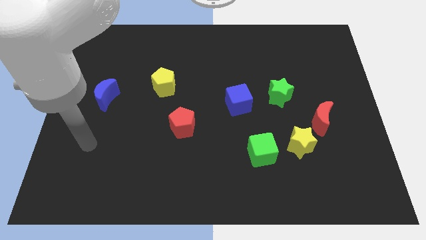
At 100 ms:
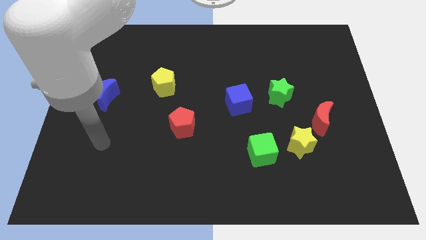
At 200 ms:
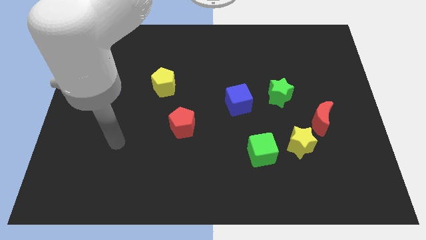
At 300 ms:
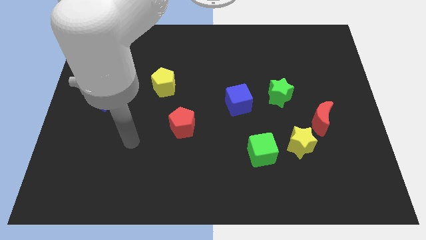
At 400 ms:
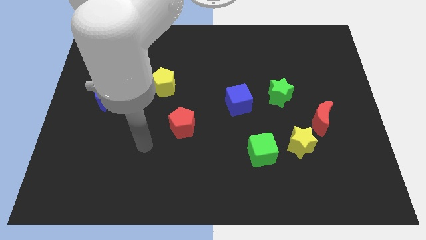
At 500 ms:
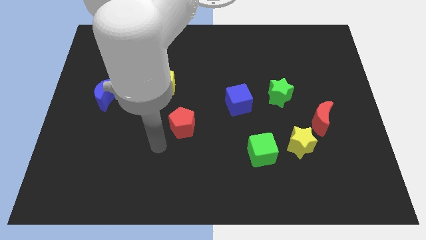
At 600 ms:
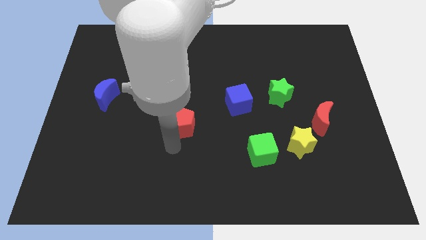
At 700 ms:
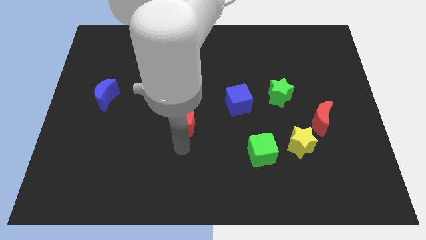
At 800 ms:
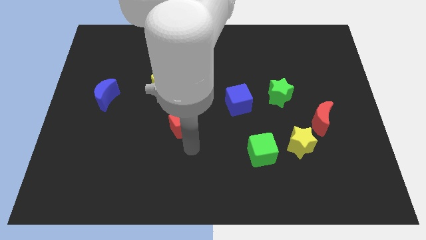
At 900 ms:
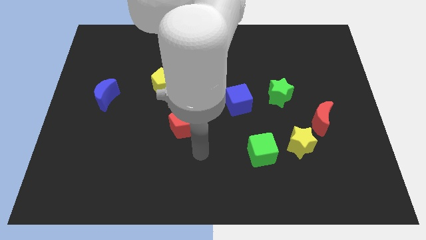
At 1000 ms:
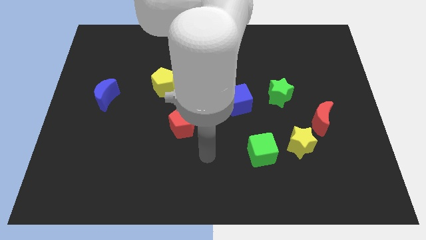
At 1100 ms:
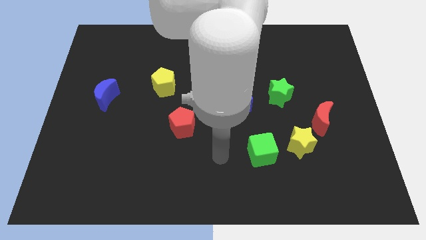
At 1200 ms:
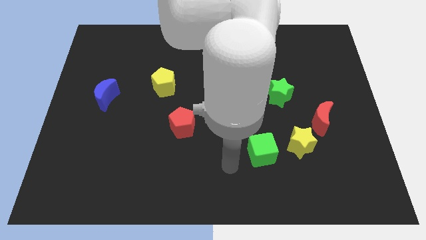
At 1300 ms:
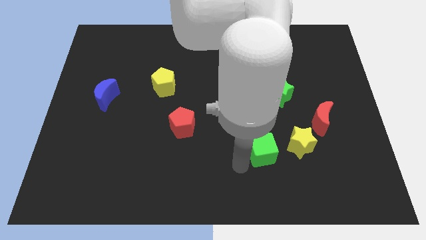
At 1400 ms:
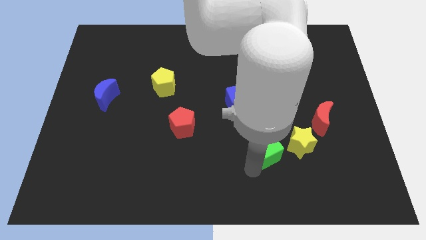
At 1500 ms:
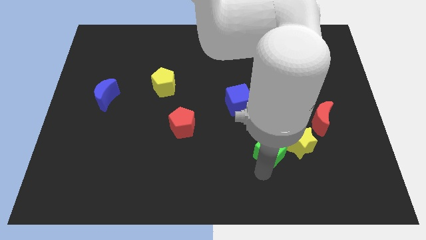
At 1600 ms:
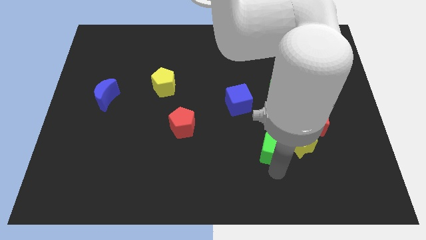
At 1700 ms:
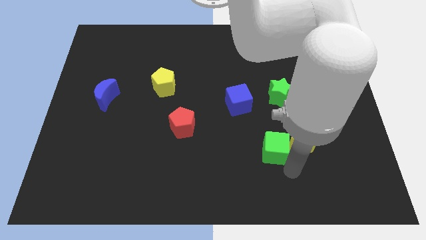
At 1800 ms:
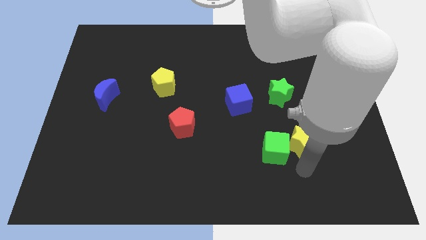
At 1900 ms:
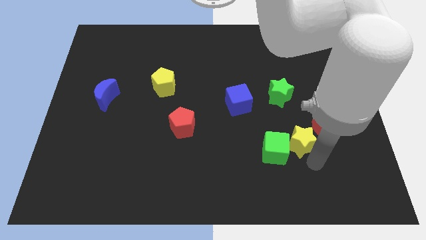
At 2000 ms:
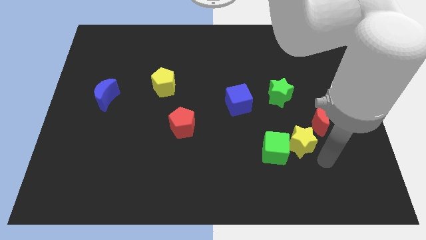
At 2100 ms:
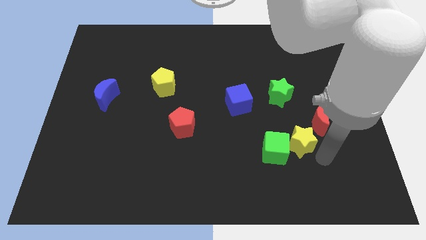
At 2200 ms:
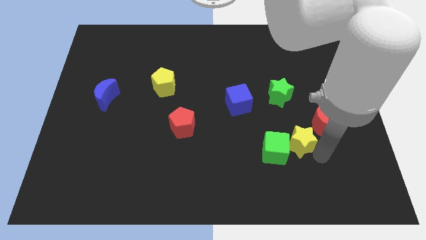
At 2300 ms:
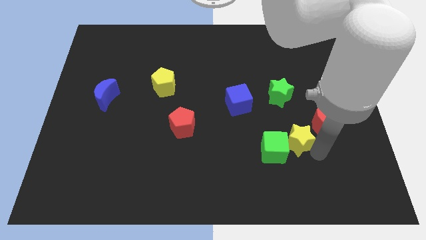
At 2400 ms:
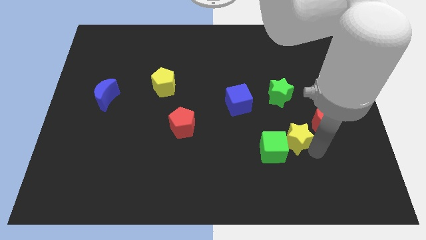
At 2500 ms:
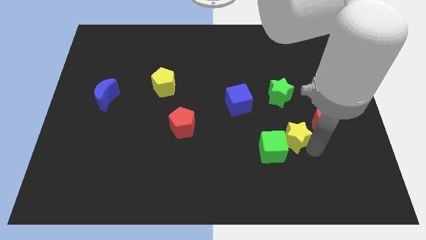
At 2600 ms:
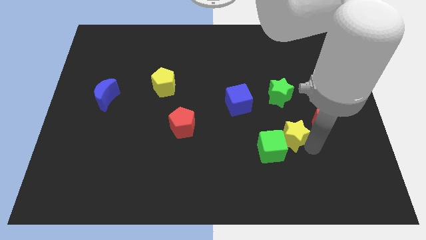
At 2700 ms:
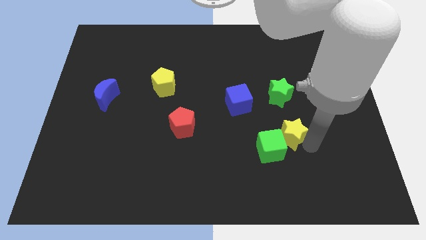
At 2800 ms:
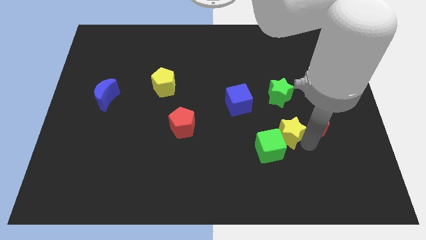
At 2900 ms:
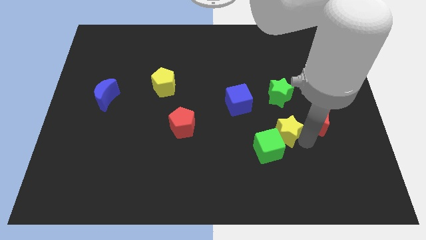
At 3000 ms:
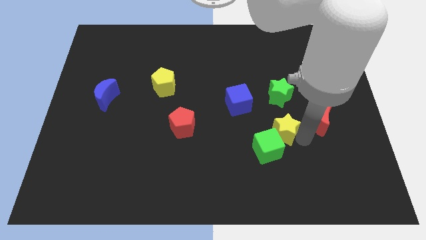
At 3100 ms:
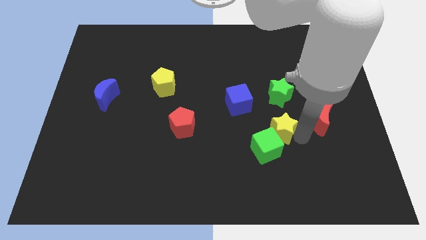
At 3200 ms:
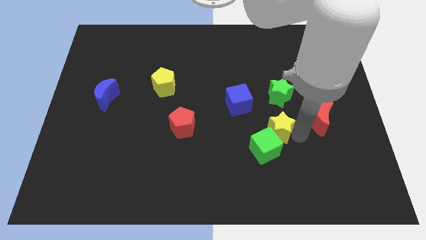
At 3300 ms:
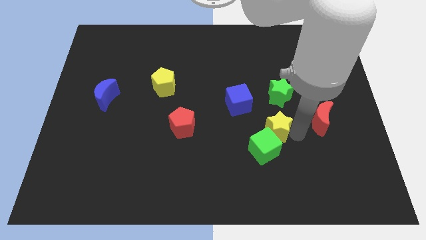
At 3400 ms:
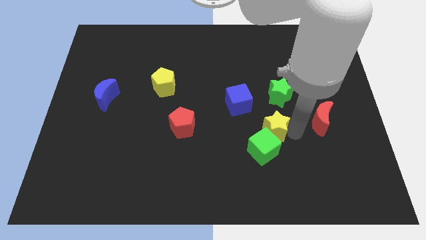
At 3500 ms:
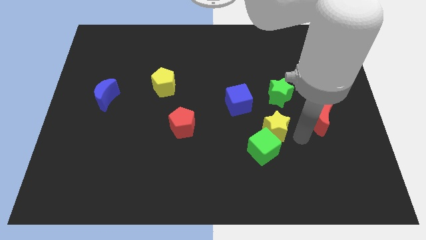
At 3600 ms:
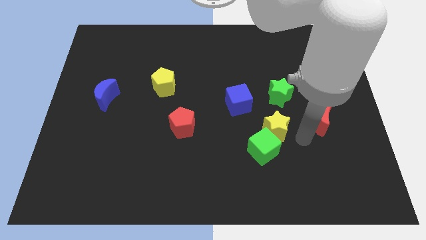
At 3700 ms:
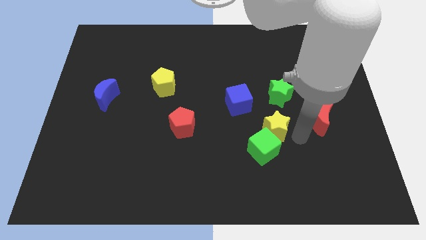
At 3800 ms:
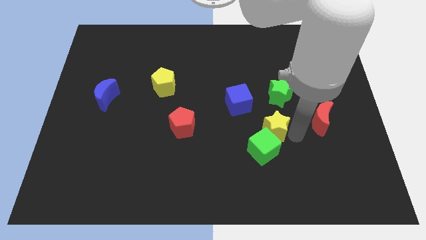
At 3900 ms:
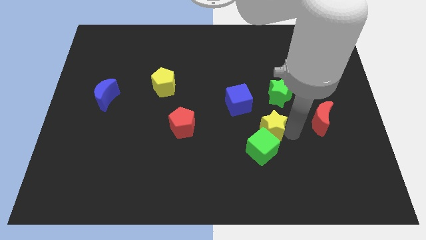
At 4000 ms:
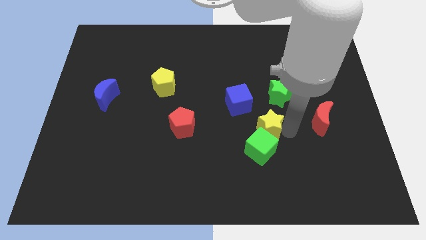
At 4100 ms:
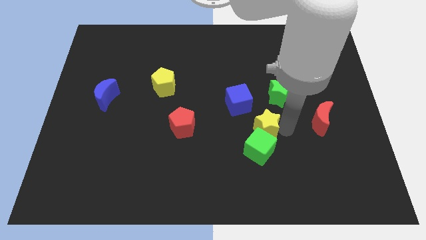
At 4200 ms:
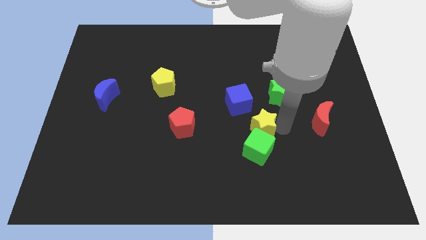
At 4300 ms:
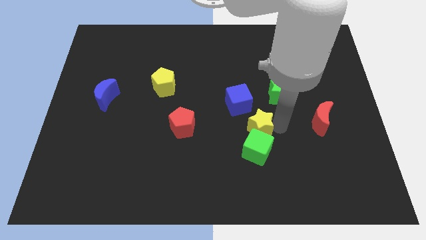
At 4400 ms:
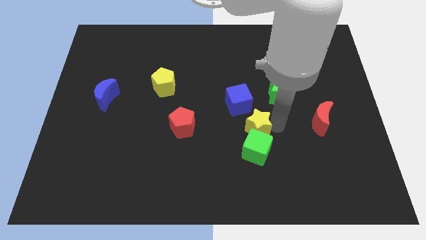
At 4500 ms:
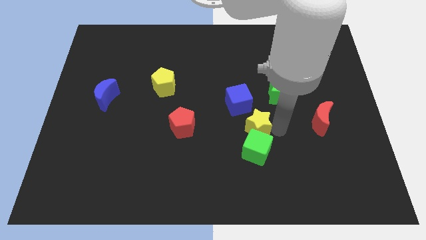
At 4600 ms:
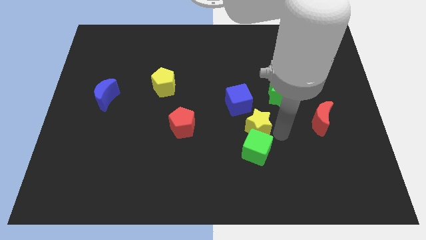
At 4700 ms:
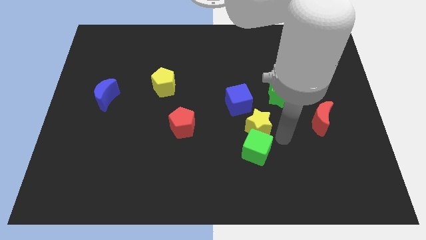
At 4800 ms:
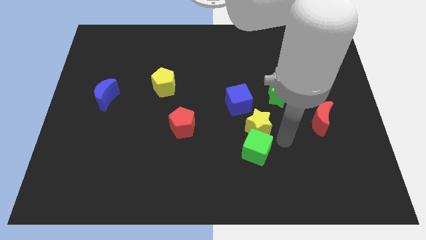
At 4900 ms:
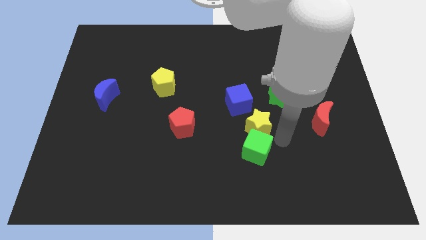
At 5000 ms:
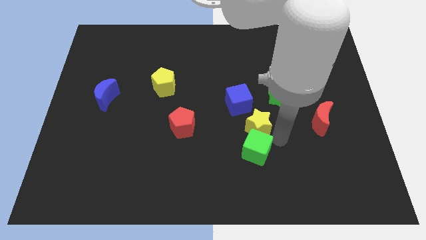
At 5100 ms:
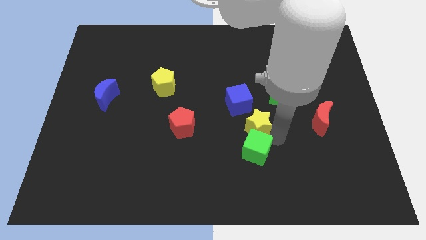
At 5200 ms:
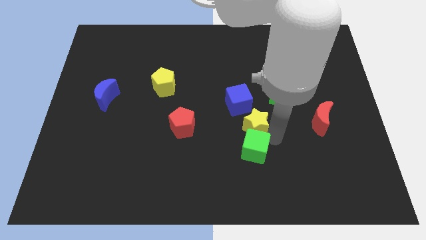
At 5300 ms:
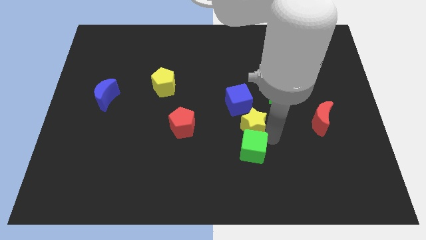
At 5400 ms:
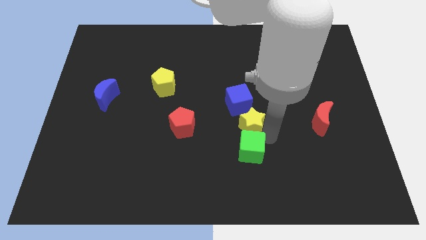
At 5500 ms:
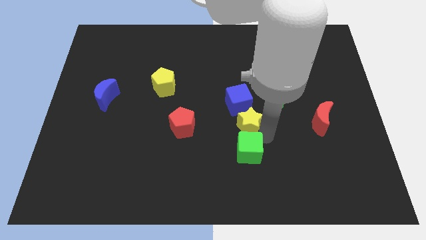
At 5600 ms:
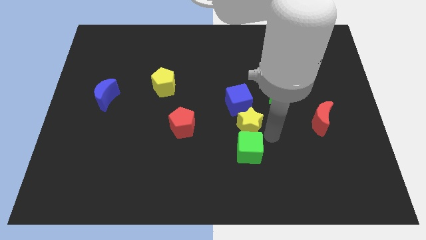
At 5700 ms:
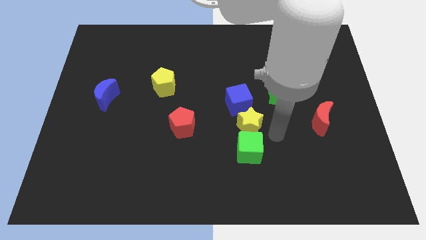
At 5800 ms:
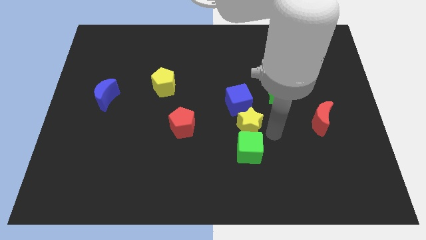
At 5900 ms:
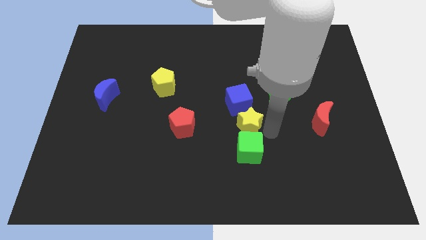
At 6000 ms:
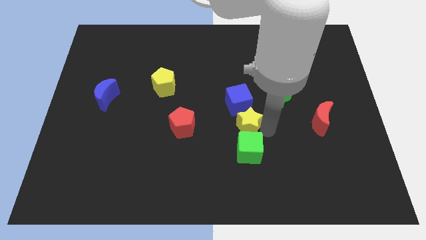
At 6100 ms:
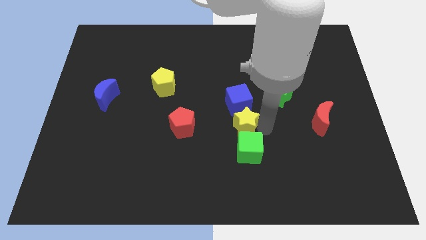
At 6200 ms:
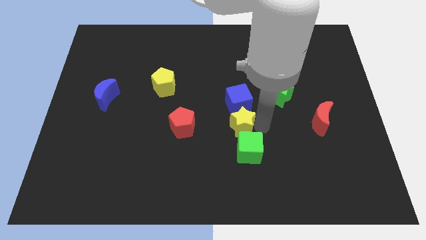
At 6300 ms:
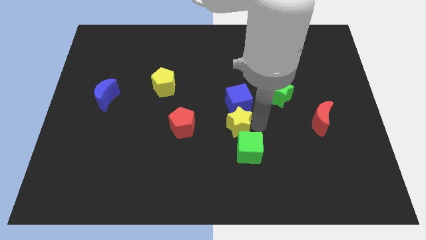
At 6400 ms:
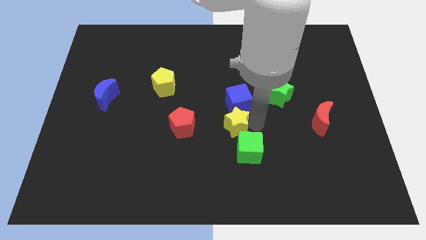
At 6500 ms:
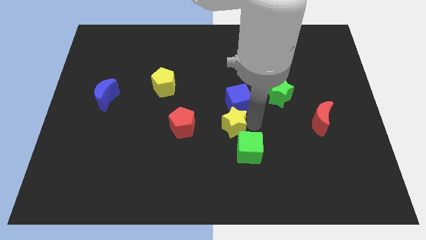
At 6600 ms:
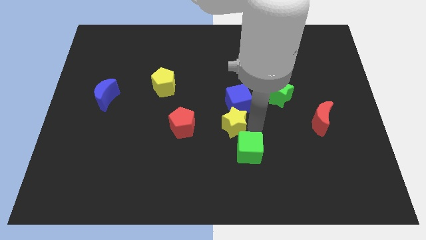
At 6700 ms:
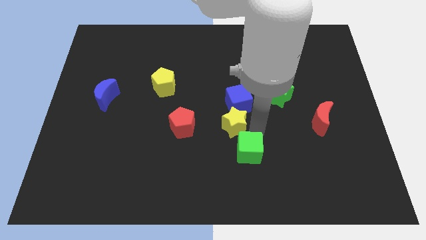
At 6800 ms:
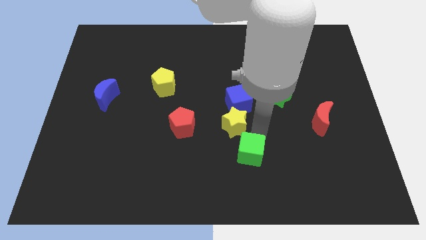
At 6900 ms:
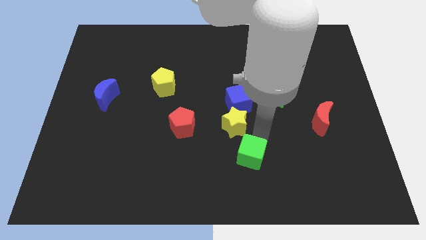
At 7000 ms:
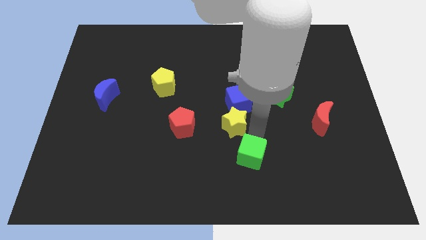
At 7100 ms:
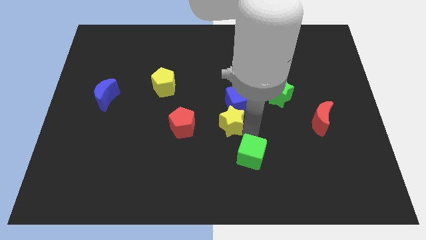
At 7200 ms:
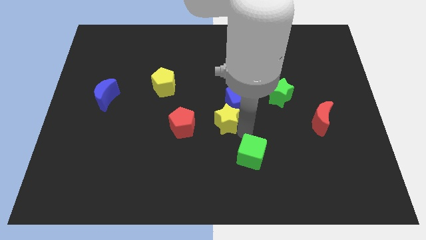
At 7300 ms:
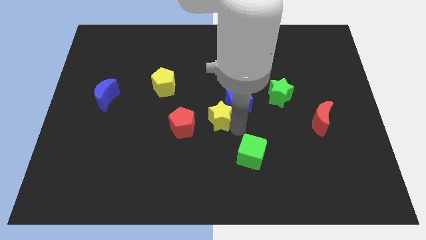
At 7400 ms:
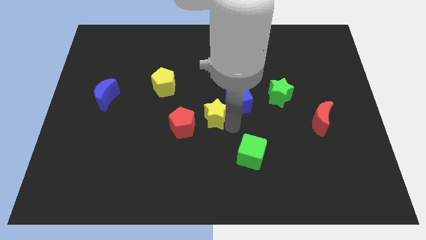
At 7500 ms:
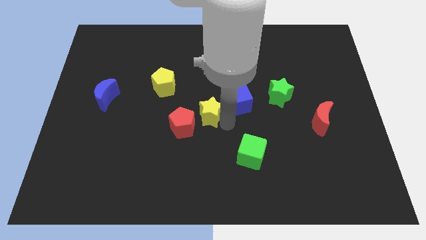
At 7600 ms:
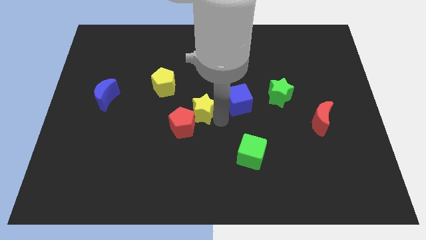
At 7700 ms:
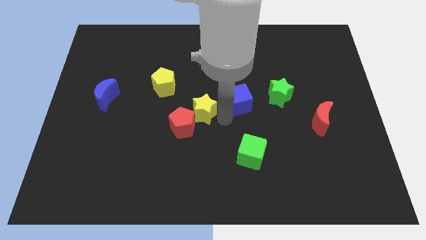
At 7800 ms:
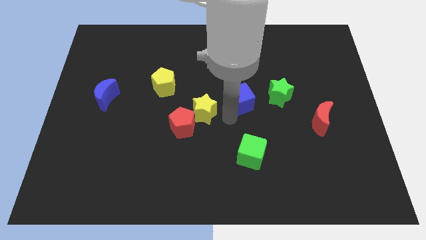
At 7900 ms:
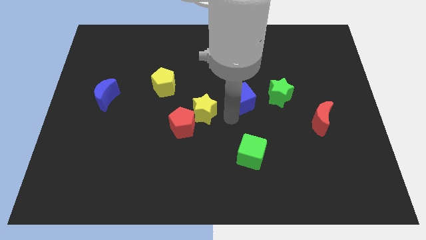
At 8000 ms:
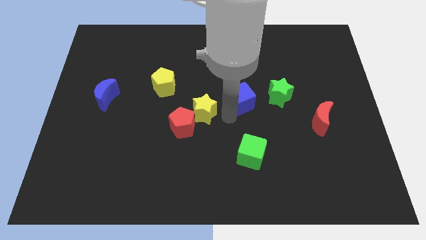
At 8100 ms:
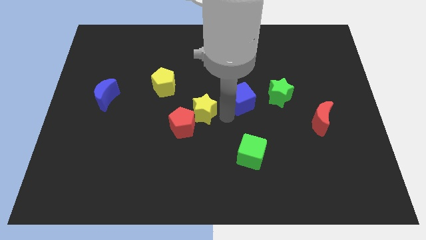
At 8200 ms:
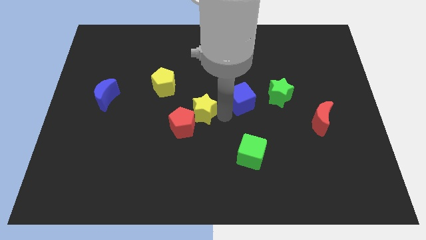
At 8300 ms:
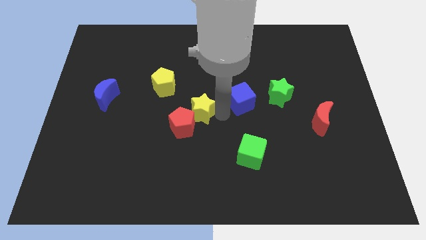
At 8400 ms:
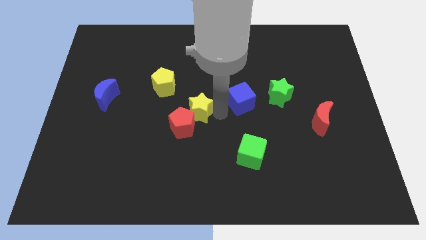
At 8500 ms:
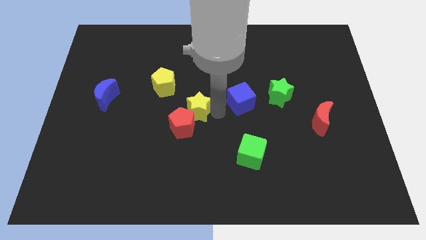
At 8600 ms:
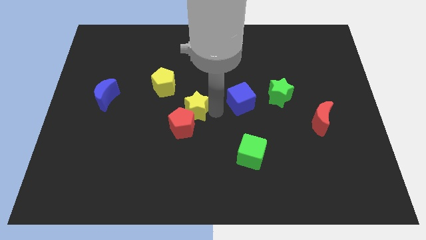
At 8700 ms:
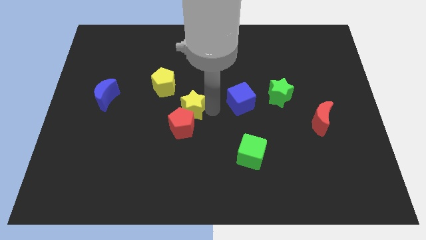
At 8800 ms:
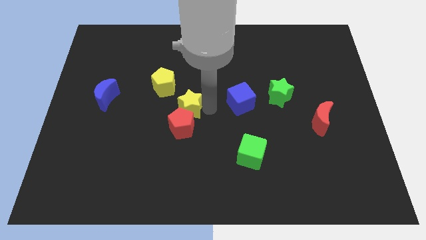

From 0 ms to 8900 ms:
move the yellow star to the top left side of the red pentagon
